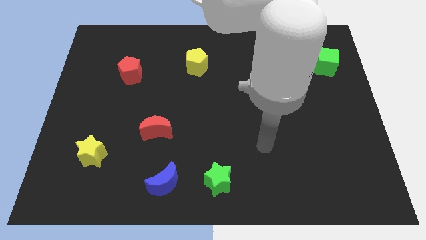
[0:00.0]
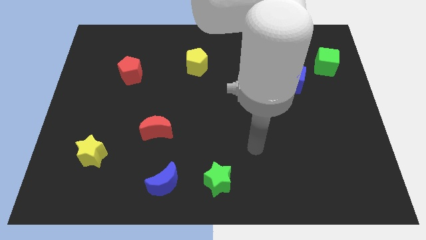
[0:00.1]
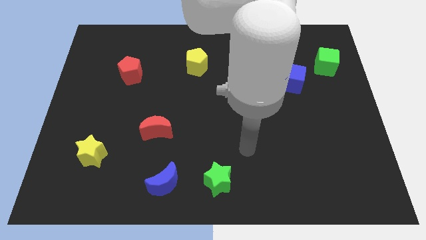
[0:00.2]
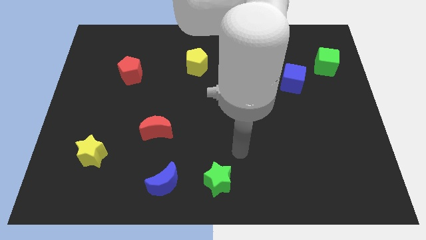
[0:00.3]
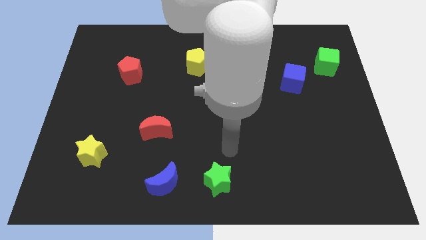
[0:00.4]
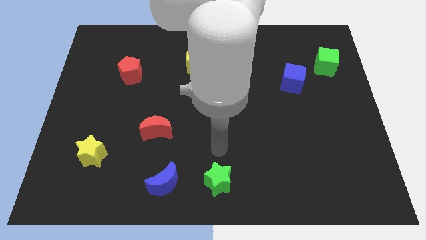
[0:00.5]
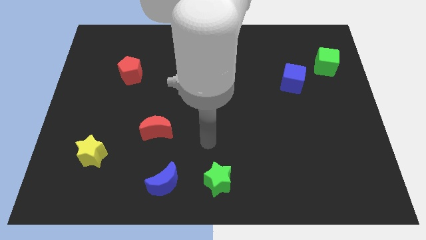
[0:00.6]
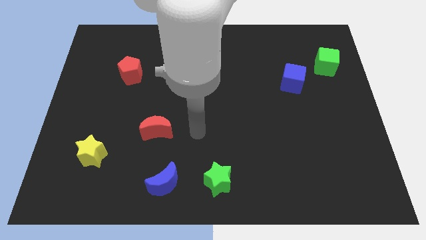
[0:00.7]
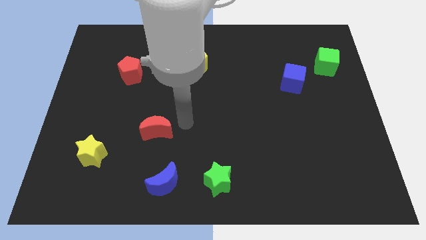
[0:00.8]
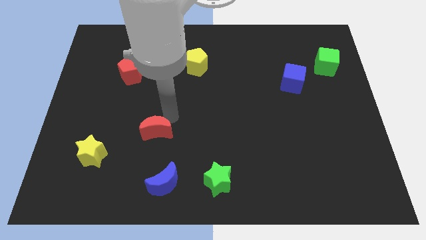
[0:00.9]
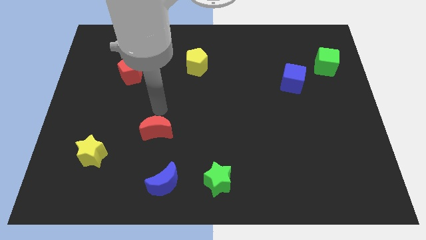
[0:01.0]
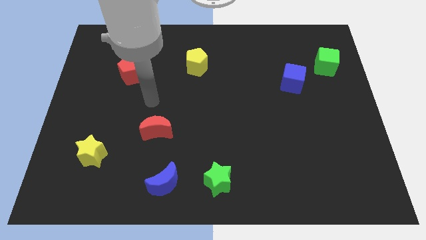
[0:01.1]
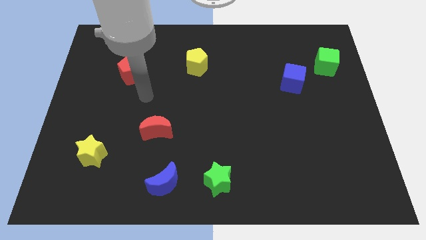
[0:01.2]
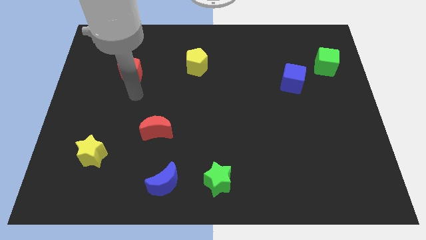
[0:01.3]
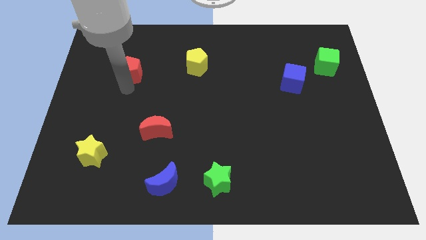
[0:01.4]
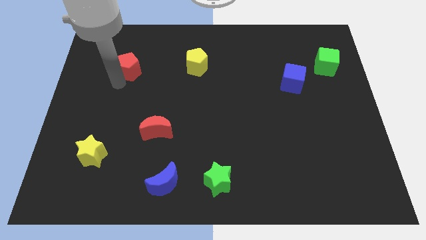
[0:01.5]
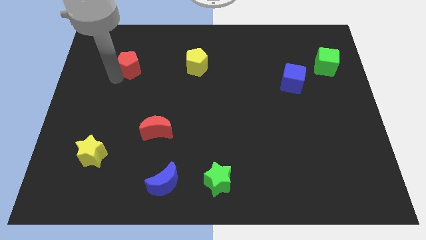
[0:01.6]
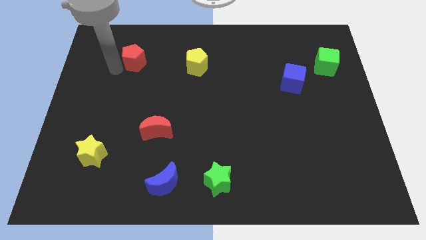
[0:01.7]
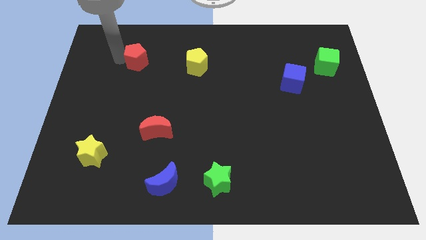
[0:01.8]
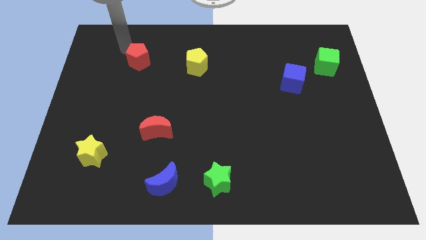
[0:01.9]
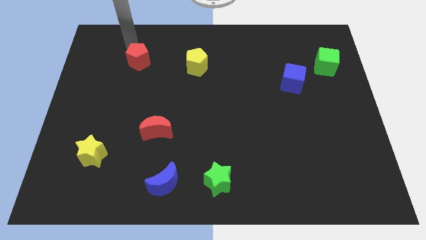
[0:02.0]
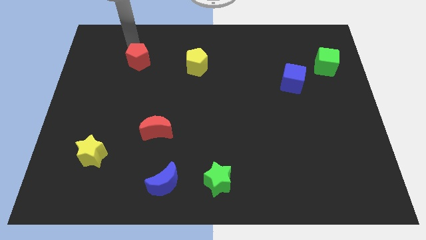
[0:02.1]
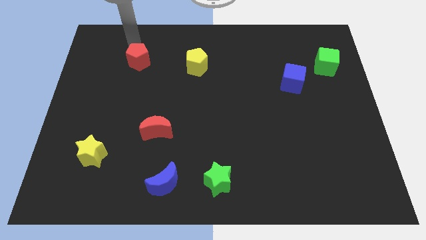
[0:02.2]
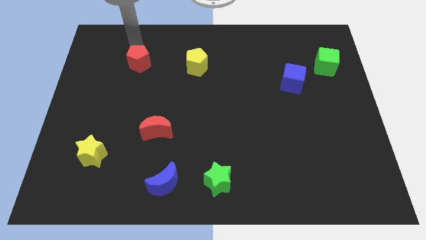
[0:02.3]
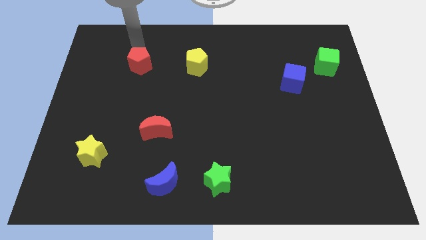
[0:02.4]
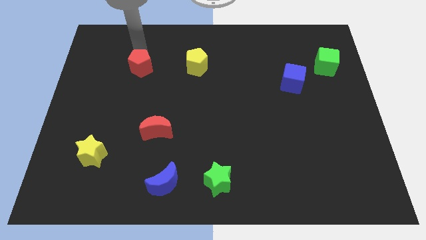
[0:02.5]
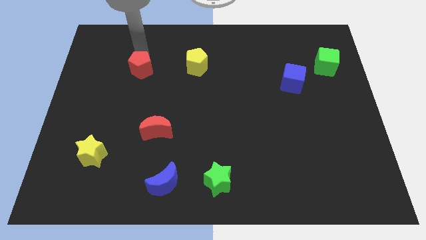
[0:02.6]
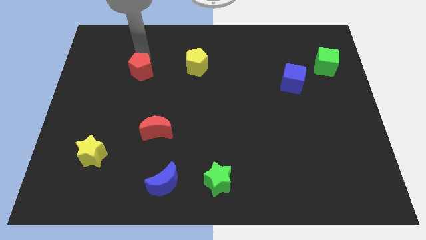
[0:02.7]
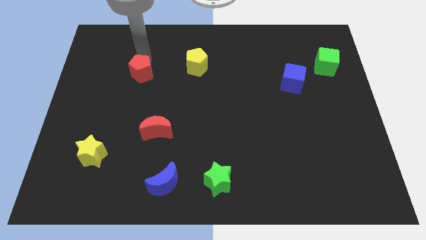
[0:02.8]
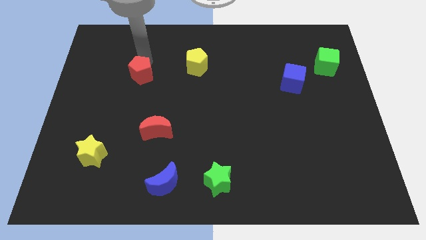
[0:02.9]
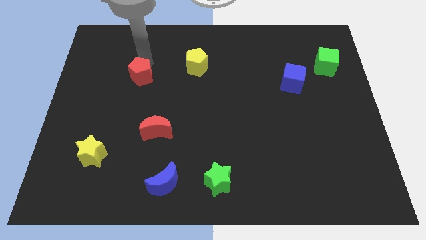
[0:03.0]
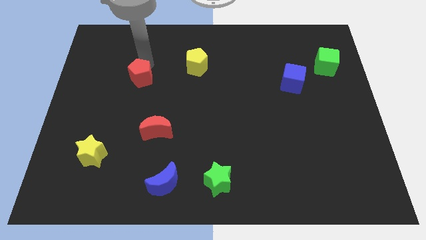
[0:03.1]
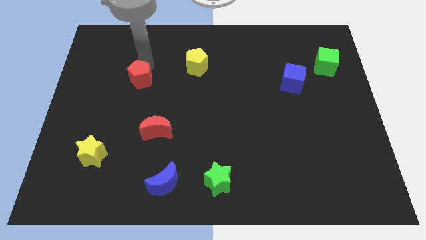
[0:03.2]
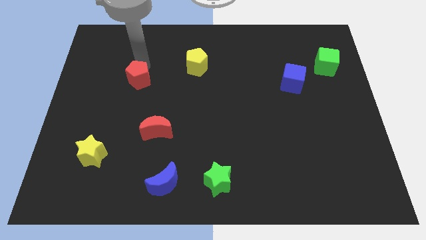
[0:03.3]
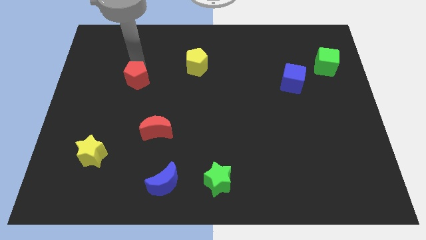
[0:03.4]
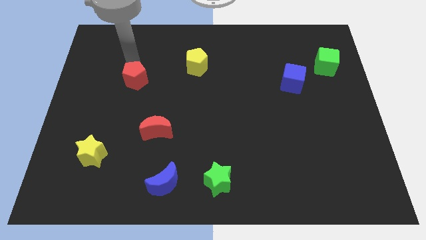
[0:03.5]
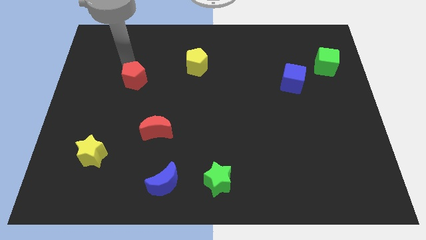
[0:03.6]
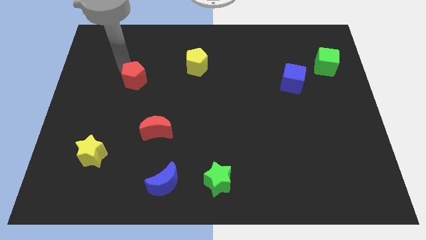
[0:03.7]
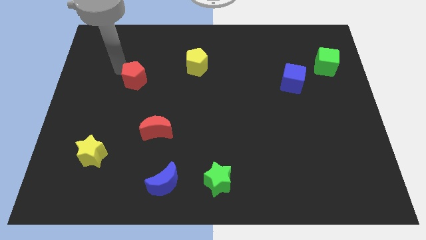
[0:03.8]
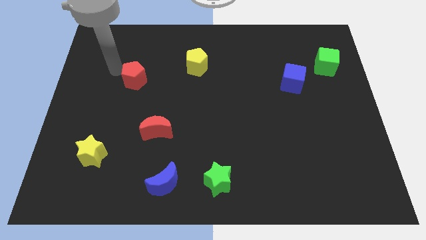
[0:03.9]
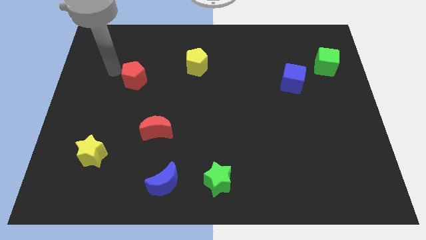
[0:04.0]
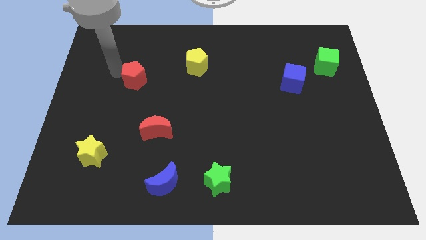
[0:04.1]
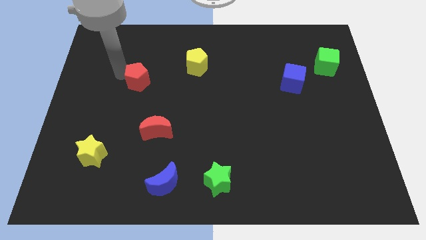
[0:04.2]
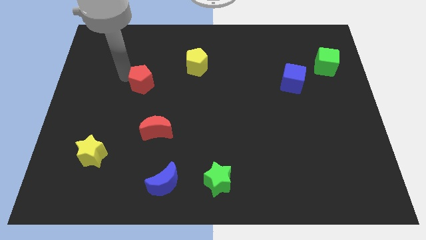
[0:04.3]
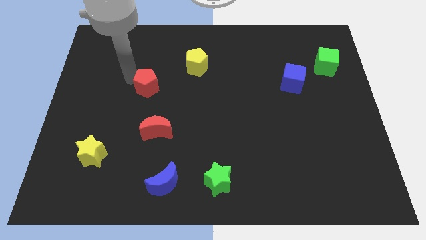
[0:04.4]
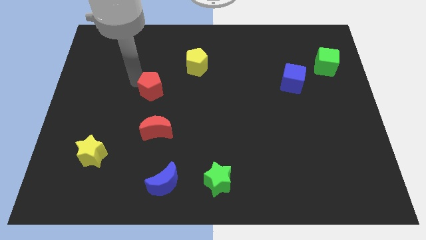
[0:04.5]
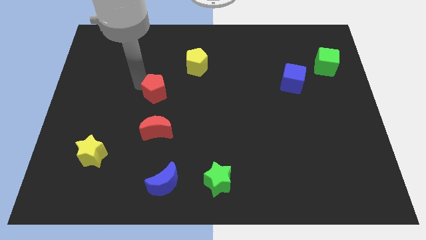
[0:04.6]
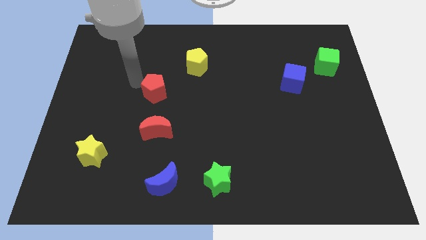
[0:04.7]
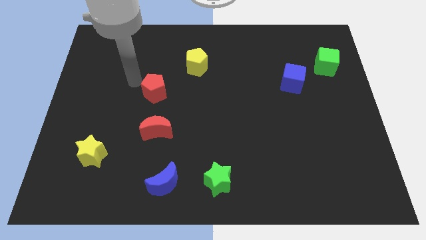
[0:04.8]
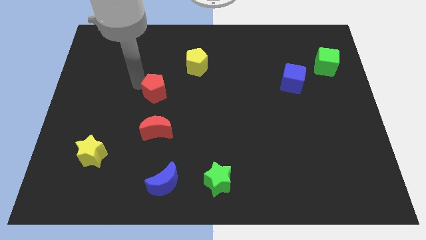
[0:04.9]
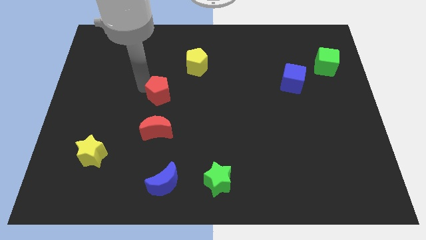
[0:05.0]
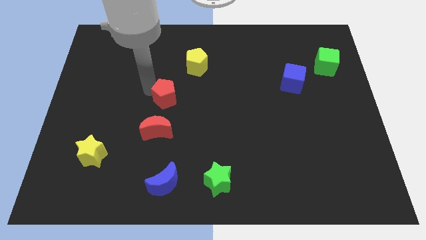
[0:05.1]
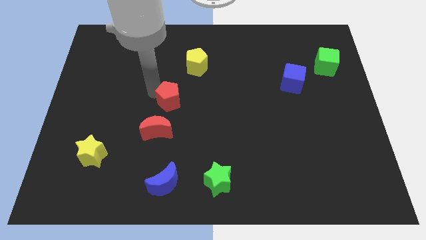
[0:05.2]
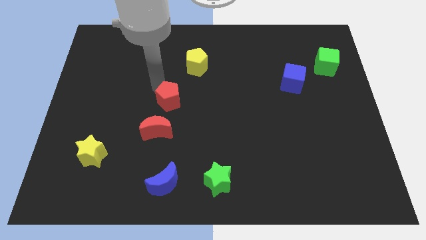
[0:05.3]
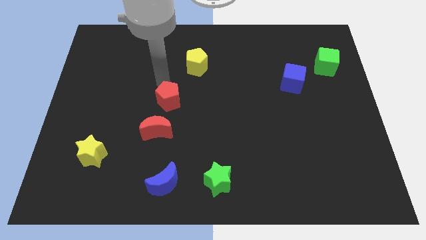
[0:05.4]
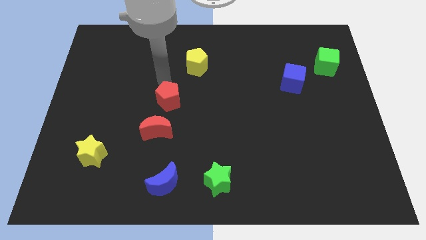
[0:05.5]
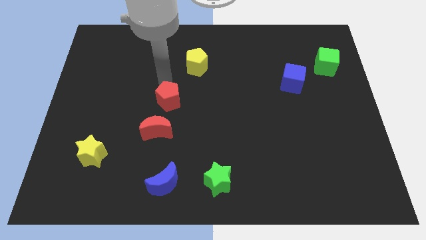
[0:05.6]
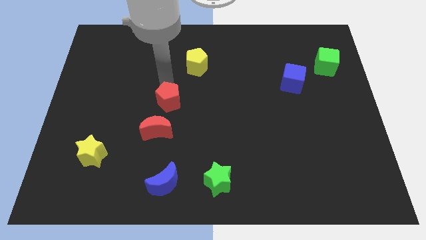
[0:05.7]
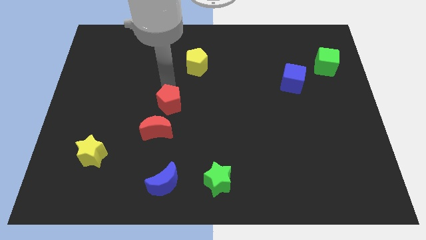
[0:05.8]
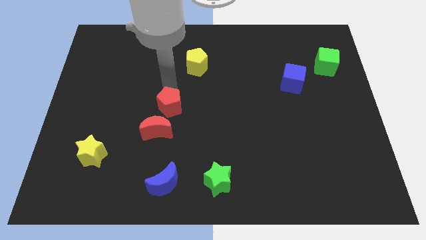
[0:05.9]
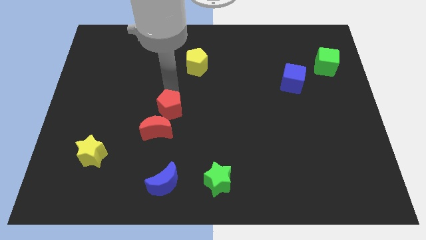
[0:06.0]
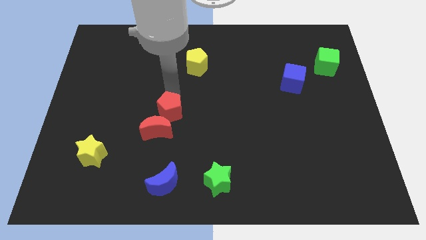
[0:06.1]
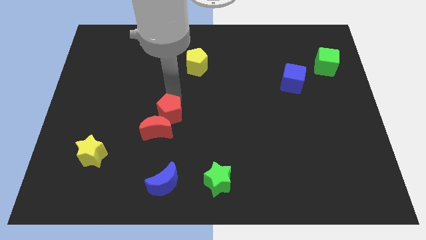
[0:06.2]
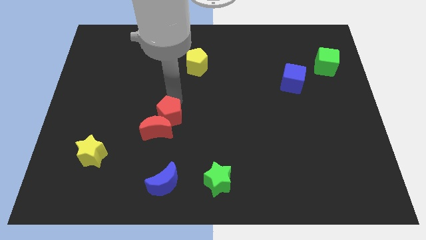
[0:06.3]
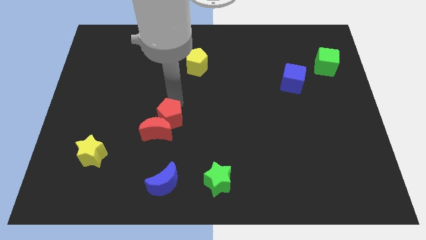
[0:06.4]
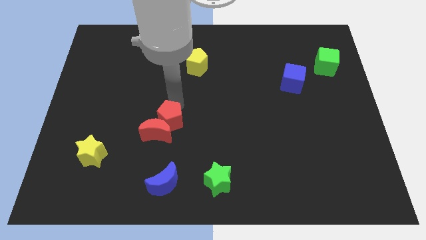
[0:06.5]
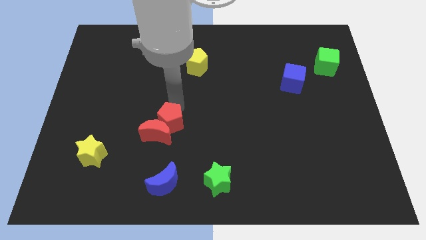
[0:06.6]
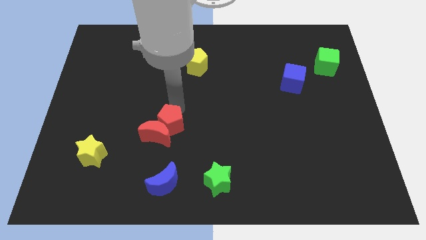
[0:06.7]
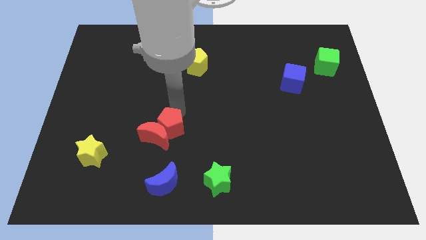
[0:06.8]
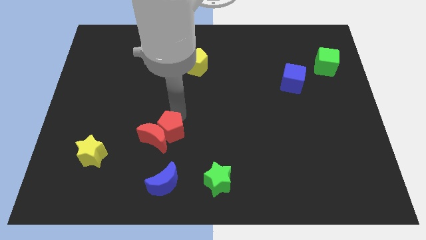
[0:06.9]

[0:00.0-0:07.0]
push the red pentagon to the bottom right of the red moon
